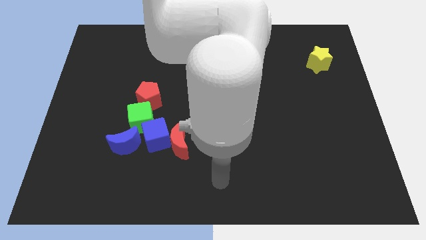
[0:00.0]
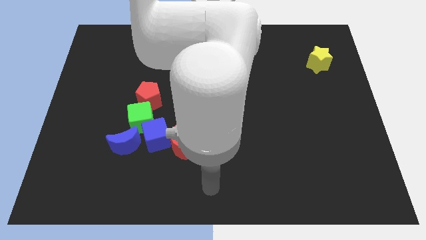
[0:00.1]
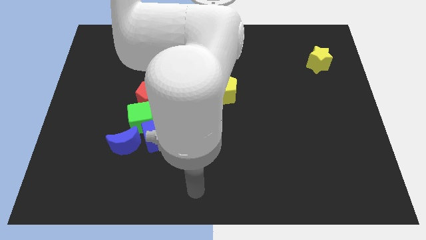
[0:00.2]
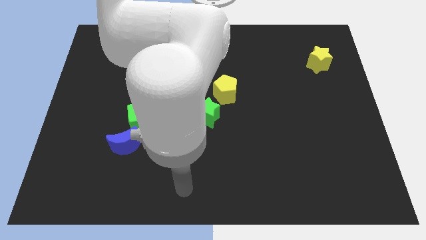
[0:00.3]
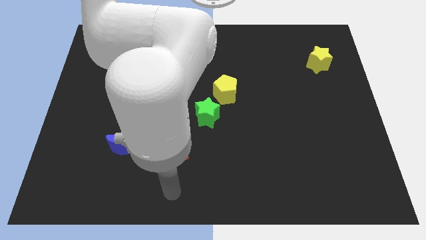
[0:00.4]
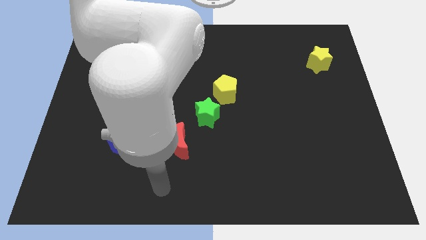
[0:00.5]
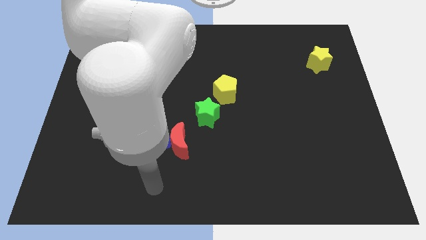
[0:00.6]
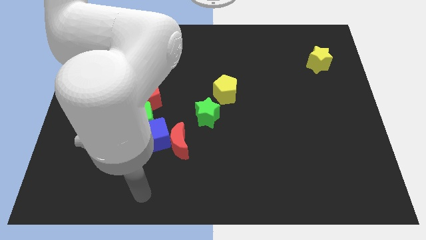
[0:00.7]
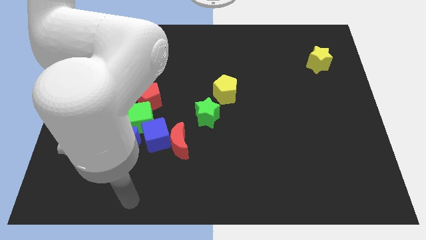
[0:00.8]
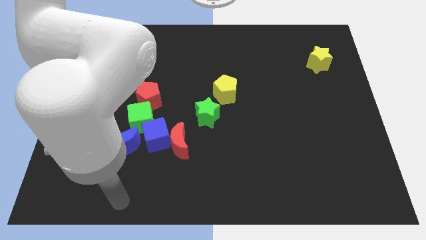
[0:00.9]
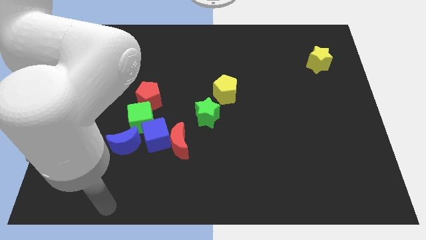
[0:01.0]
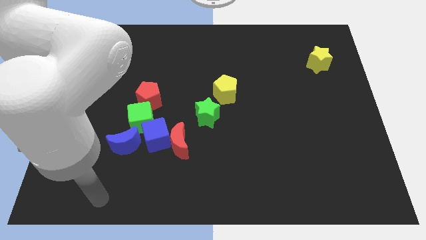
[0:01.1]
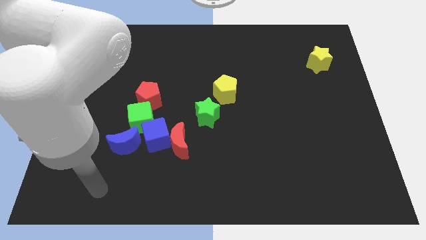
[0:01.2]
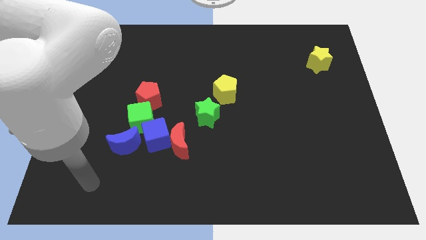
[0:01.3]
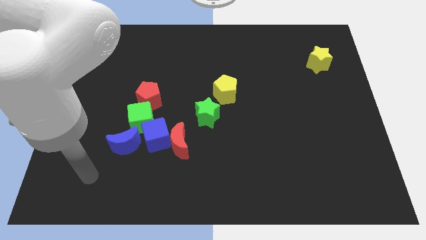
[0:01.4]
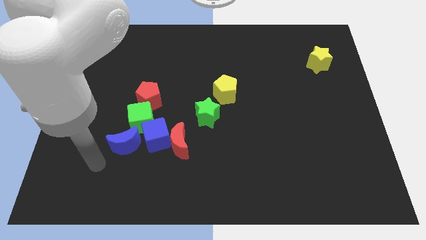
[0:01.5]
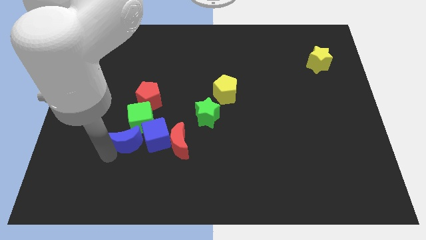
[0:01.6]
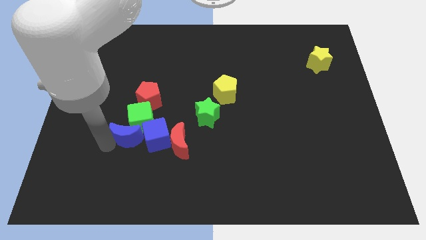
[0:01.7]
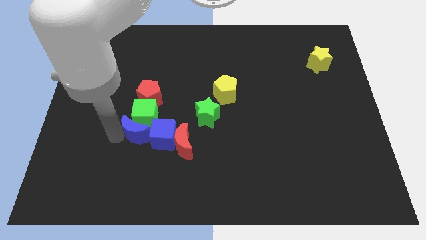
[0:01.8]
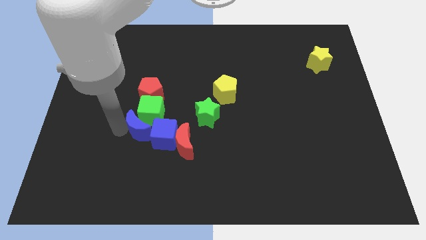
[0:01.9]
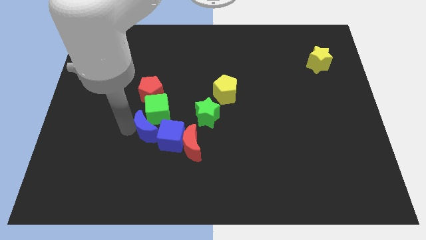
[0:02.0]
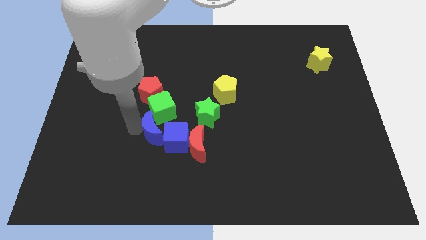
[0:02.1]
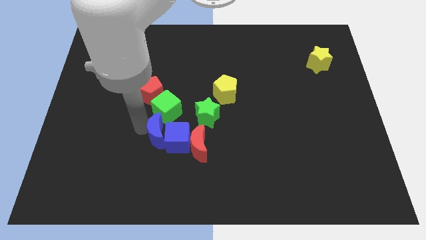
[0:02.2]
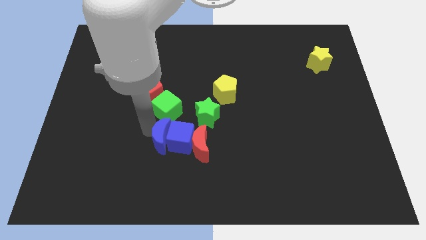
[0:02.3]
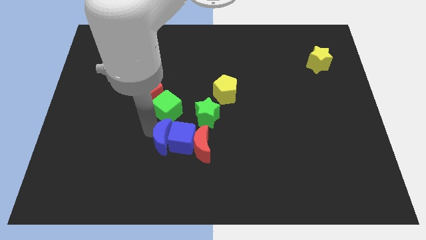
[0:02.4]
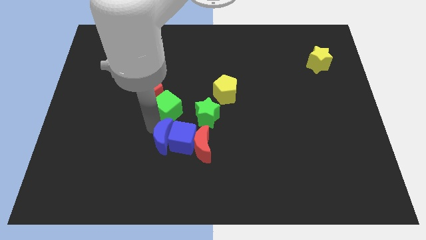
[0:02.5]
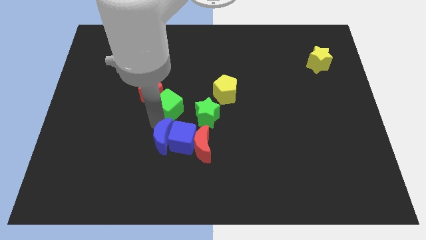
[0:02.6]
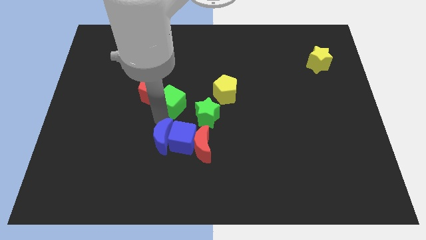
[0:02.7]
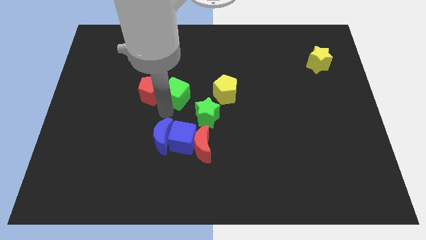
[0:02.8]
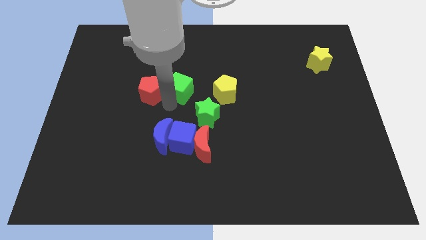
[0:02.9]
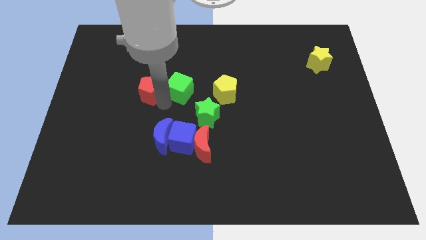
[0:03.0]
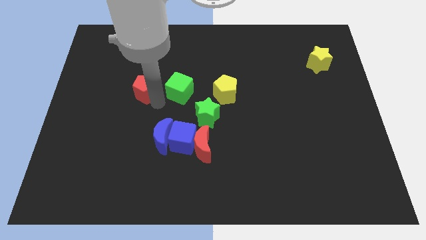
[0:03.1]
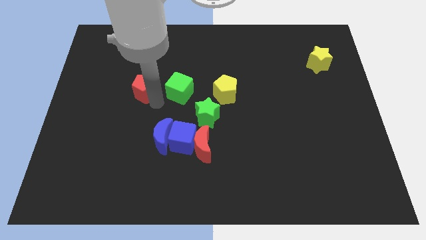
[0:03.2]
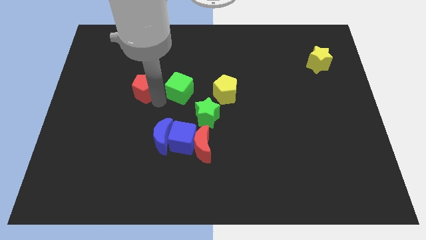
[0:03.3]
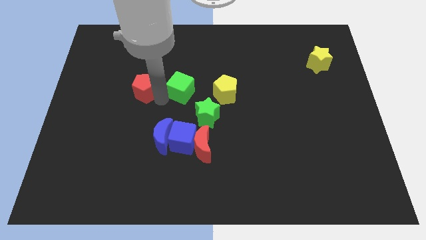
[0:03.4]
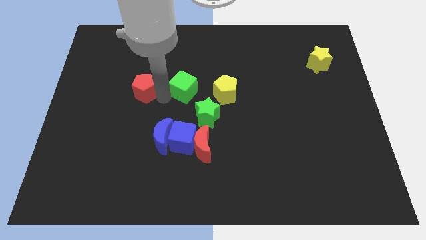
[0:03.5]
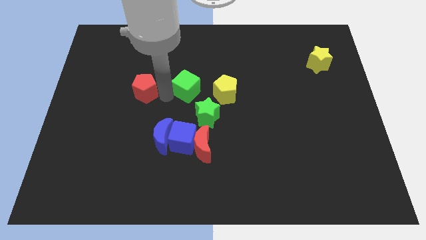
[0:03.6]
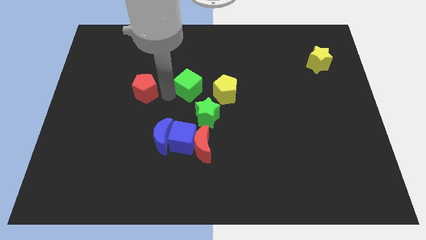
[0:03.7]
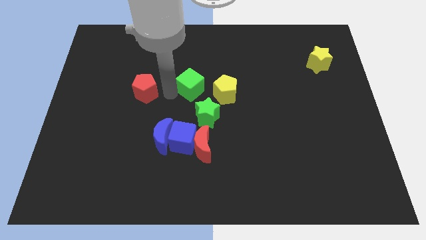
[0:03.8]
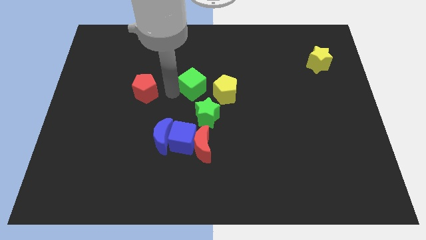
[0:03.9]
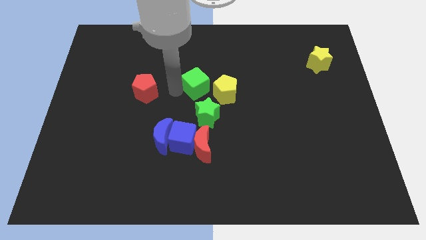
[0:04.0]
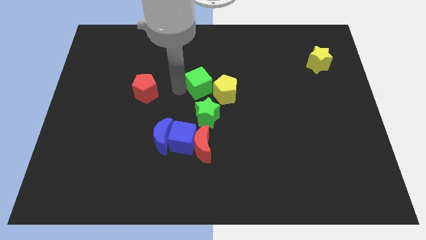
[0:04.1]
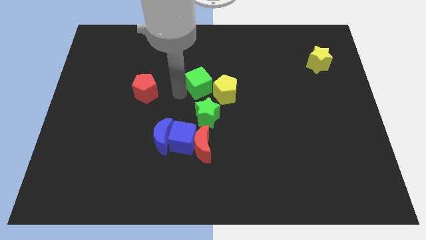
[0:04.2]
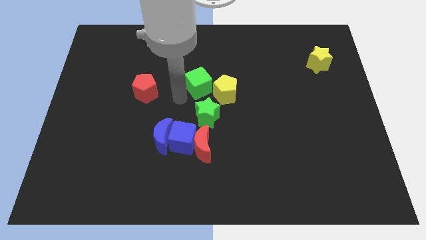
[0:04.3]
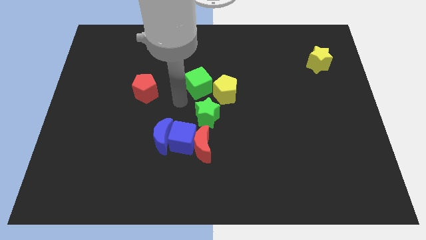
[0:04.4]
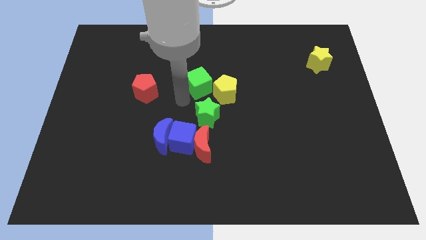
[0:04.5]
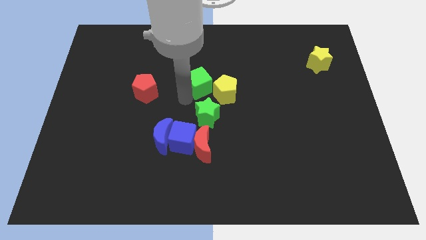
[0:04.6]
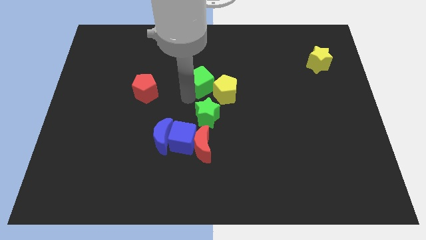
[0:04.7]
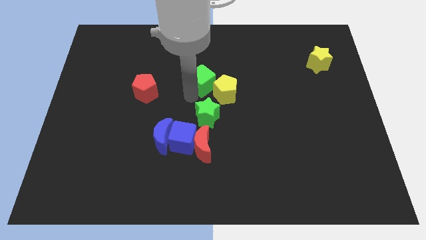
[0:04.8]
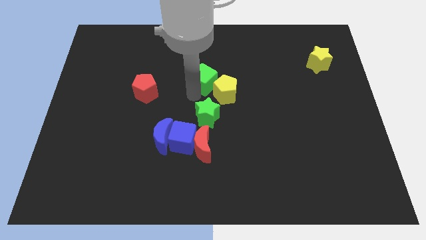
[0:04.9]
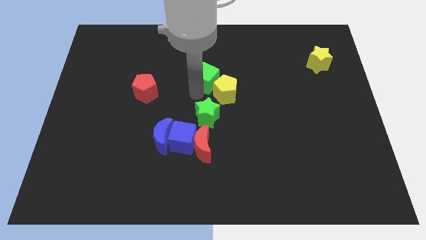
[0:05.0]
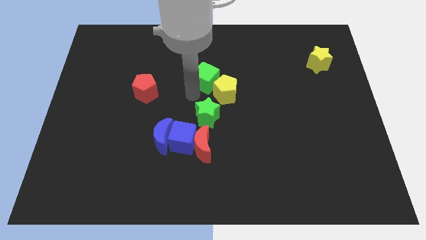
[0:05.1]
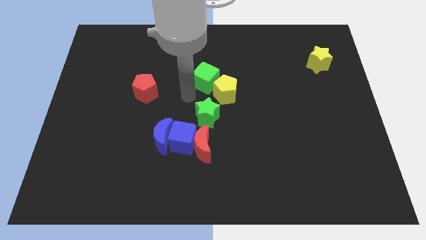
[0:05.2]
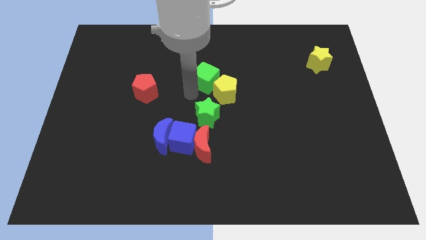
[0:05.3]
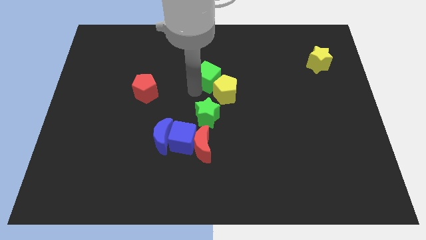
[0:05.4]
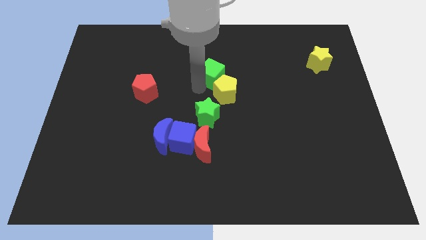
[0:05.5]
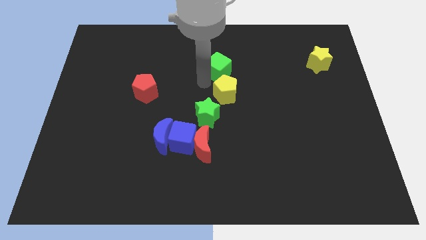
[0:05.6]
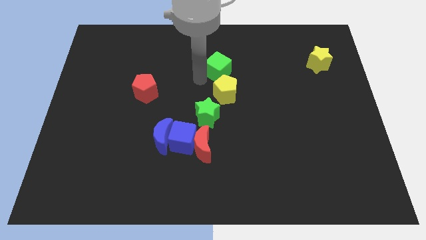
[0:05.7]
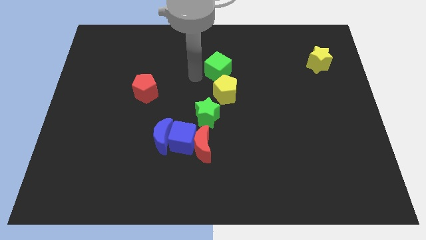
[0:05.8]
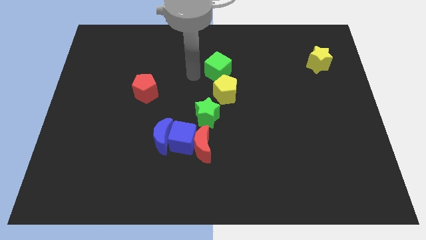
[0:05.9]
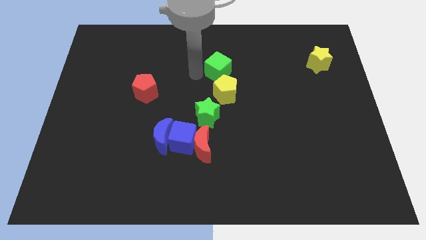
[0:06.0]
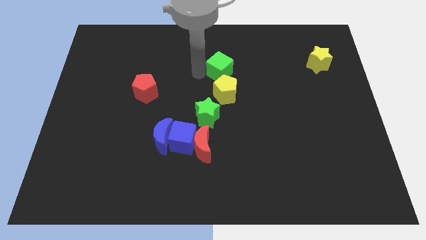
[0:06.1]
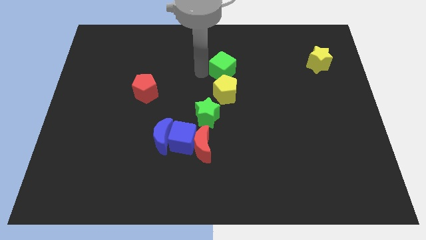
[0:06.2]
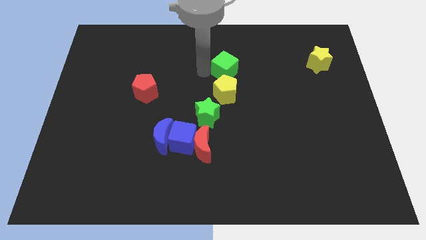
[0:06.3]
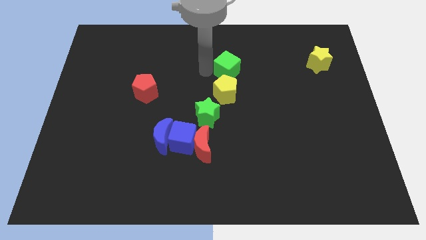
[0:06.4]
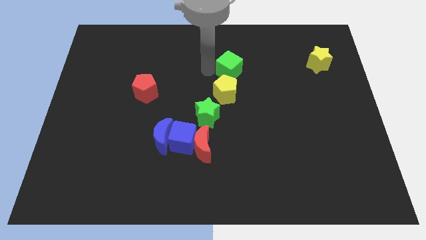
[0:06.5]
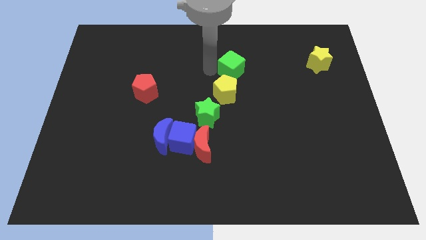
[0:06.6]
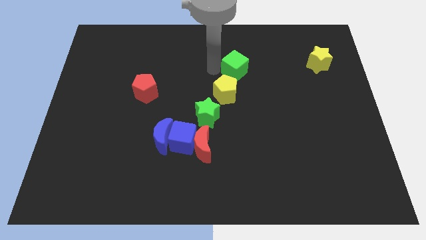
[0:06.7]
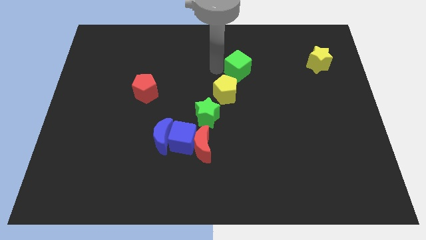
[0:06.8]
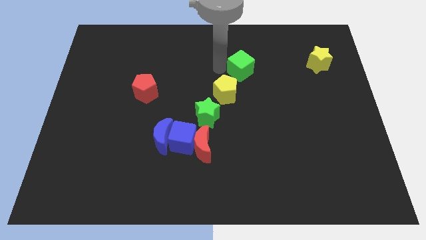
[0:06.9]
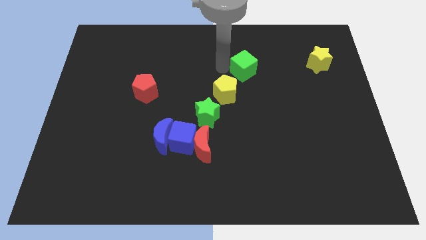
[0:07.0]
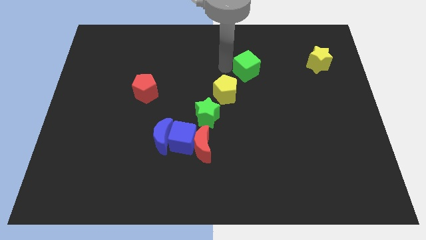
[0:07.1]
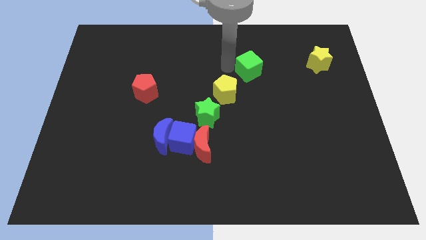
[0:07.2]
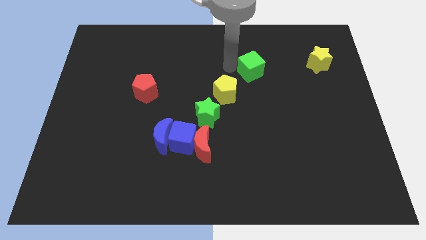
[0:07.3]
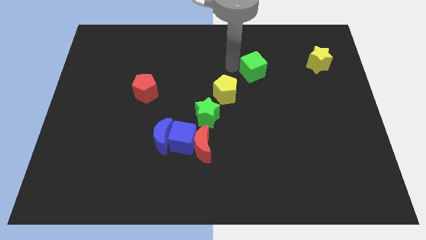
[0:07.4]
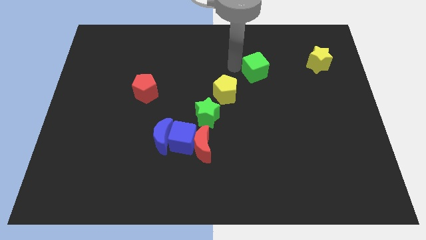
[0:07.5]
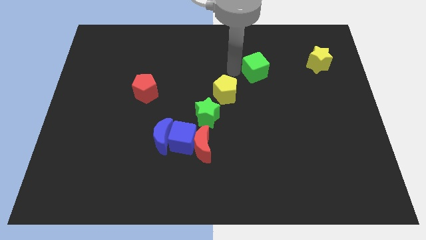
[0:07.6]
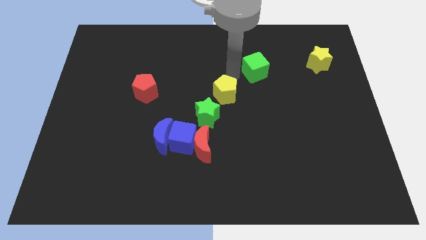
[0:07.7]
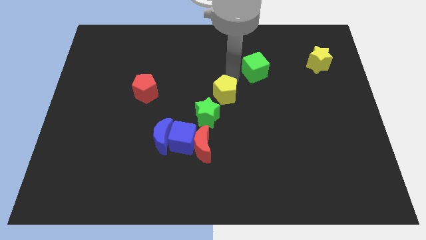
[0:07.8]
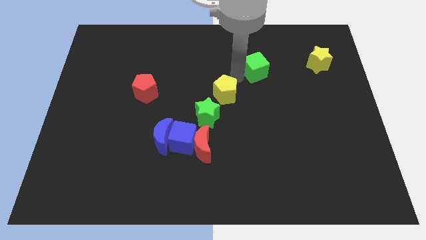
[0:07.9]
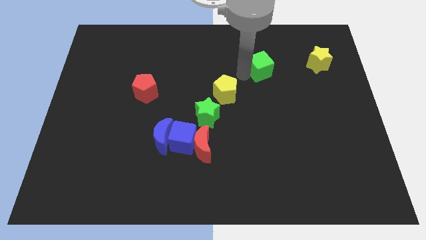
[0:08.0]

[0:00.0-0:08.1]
put the green cube to the left side of the yellow star
